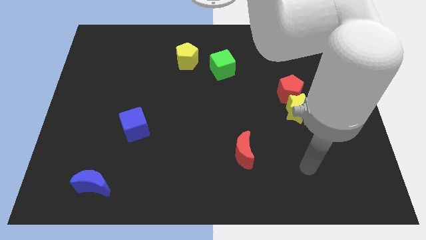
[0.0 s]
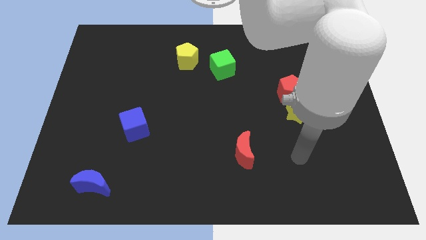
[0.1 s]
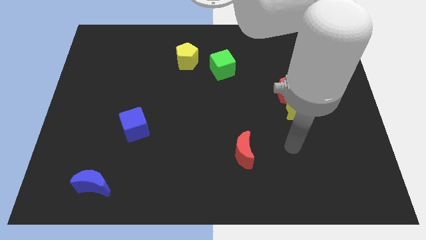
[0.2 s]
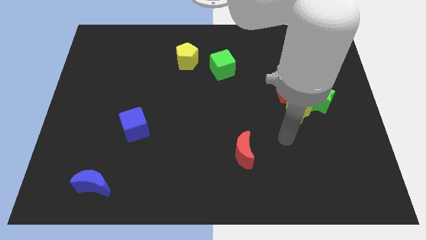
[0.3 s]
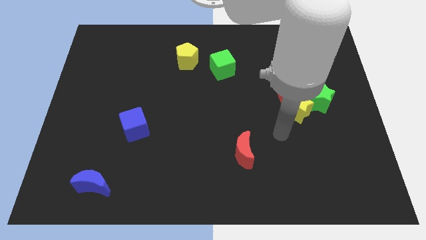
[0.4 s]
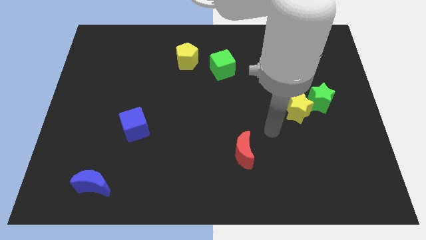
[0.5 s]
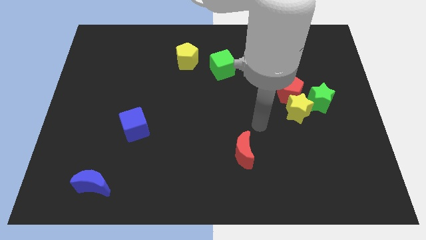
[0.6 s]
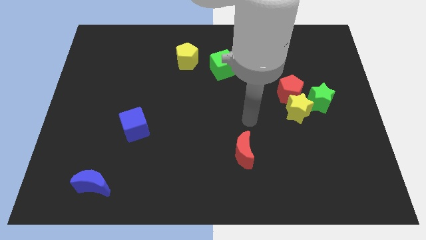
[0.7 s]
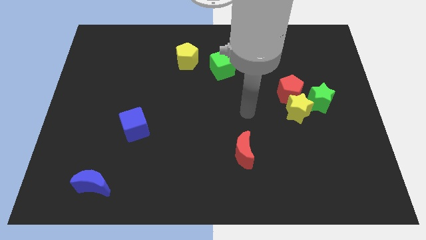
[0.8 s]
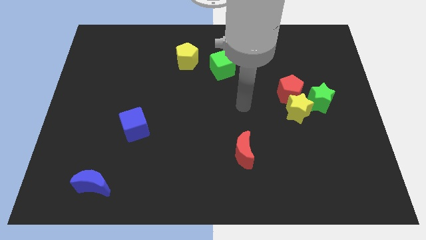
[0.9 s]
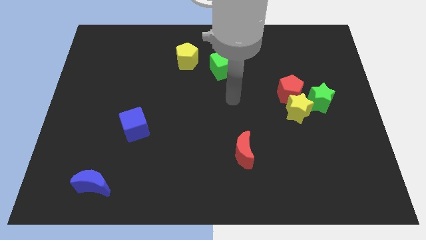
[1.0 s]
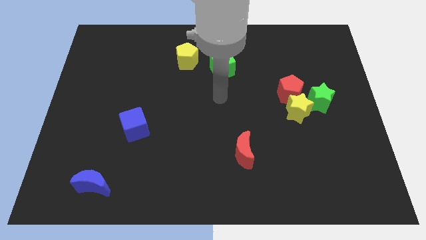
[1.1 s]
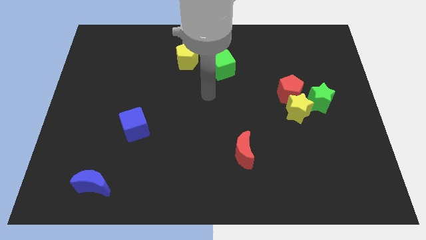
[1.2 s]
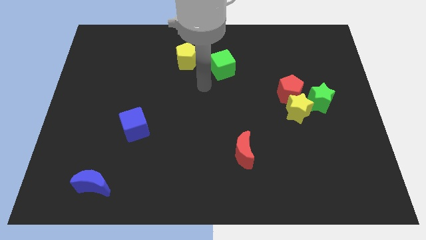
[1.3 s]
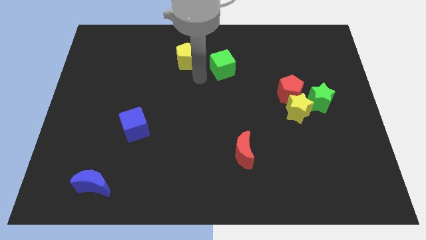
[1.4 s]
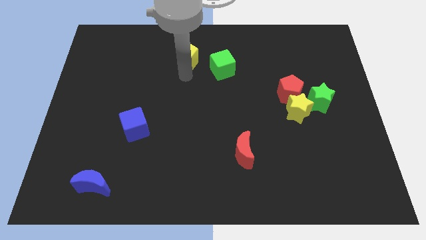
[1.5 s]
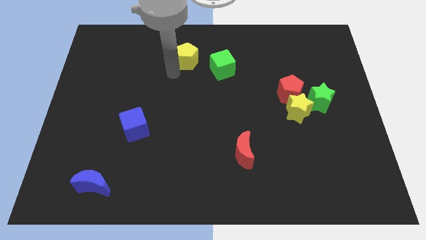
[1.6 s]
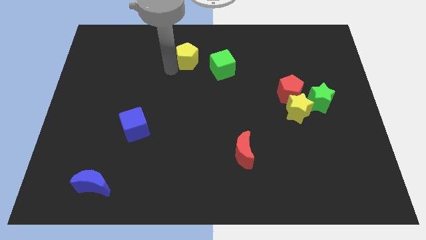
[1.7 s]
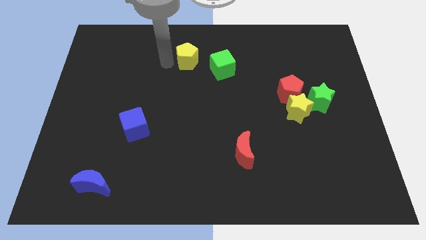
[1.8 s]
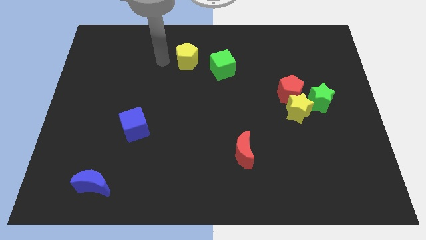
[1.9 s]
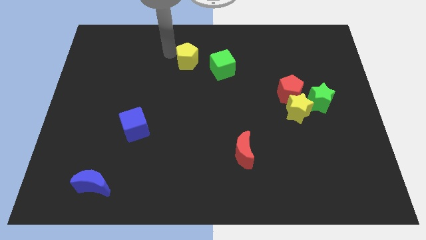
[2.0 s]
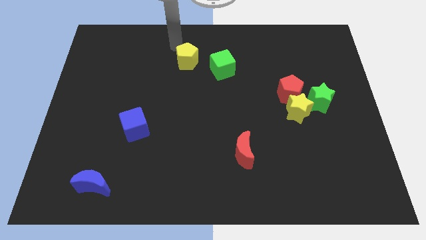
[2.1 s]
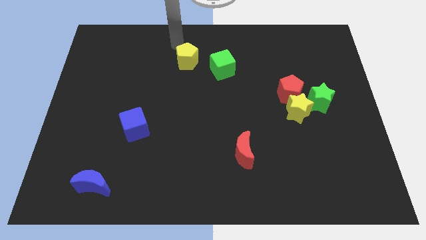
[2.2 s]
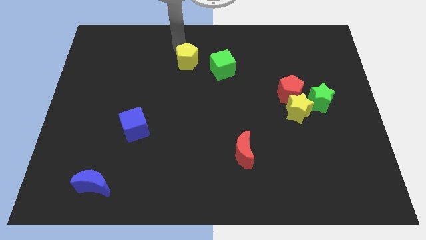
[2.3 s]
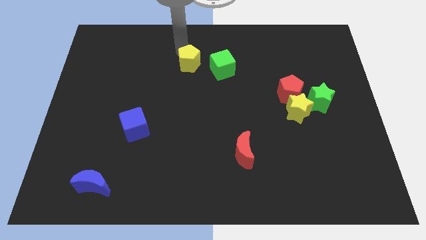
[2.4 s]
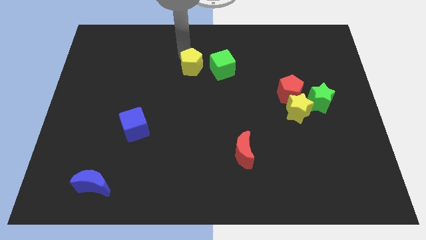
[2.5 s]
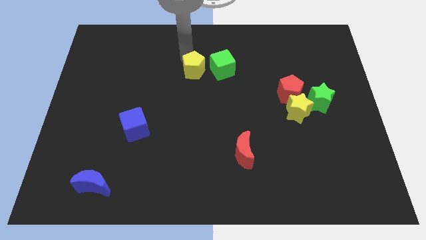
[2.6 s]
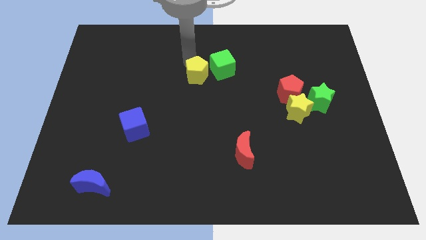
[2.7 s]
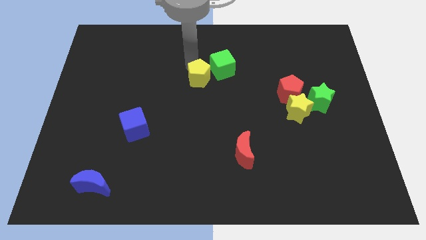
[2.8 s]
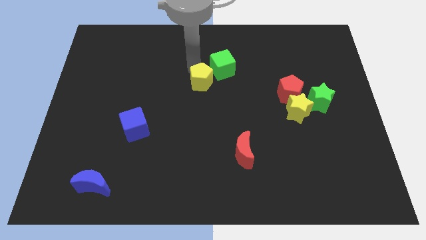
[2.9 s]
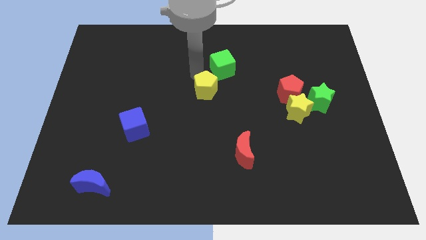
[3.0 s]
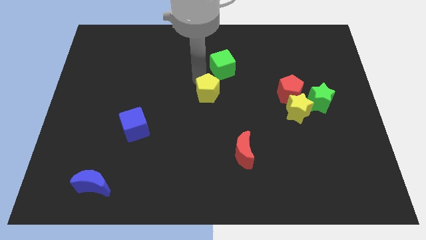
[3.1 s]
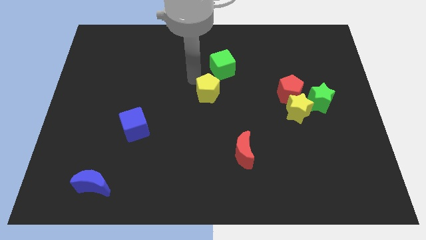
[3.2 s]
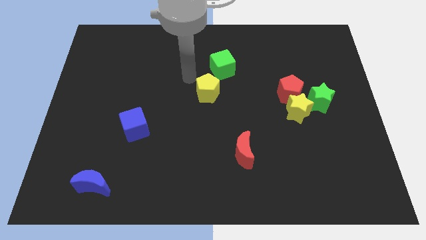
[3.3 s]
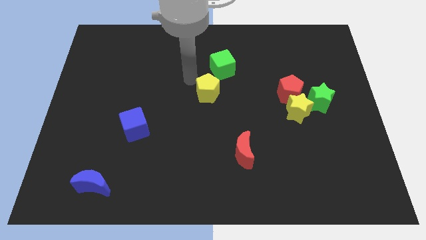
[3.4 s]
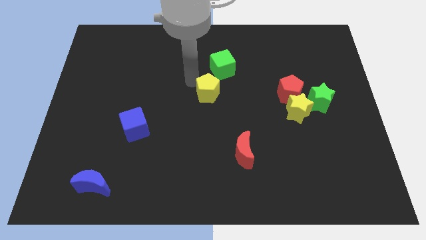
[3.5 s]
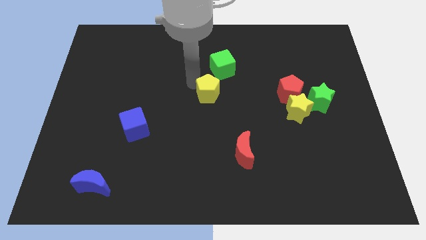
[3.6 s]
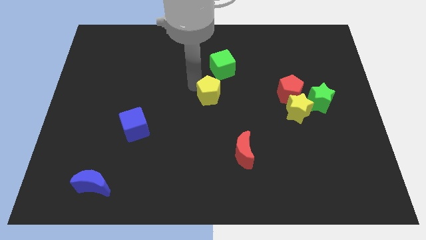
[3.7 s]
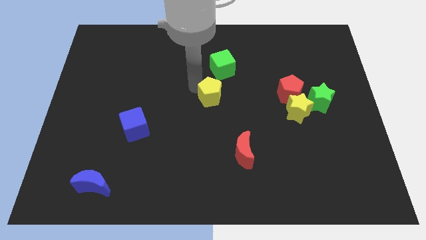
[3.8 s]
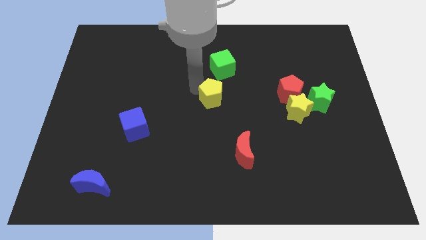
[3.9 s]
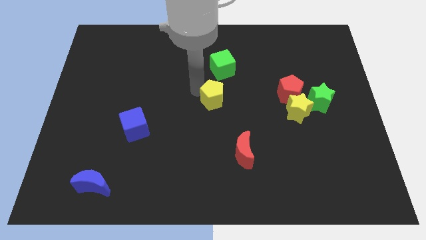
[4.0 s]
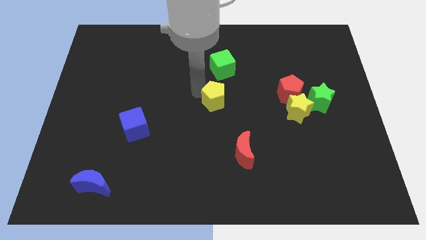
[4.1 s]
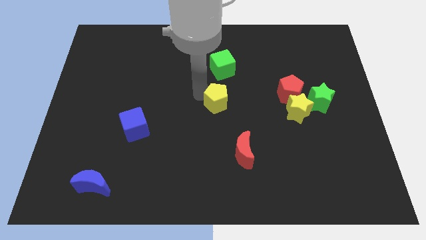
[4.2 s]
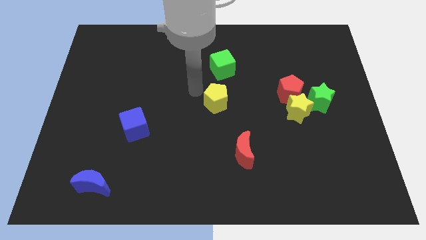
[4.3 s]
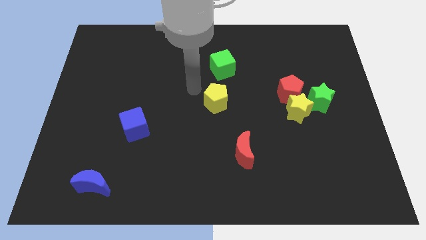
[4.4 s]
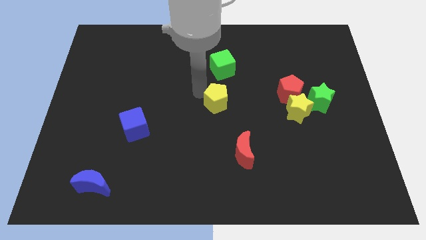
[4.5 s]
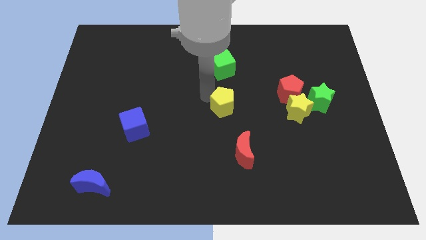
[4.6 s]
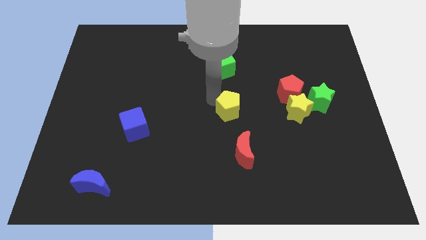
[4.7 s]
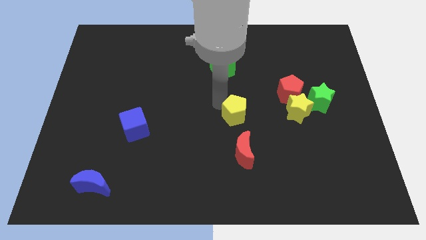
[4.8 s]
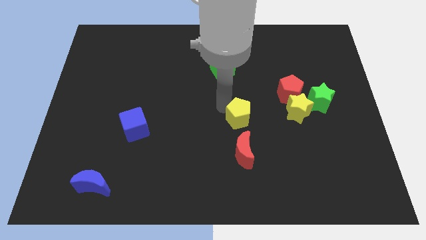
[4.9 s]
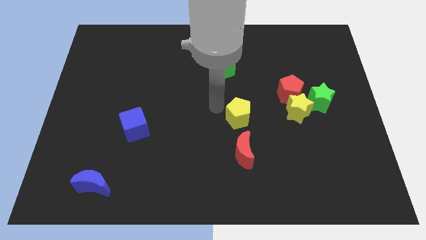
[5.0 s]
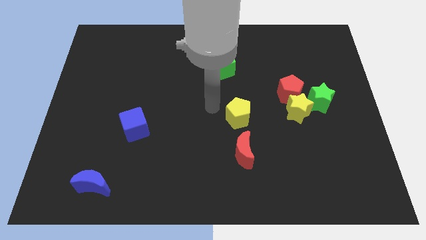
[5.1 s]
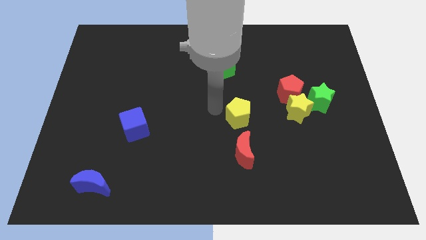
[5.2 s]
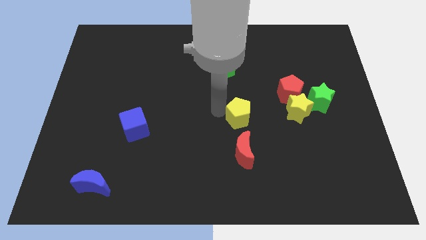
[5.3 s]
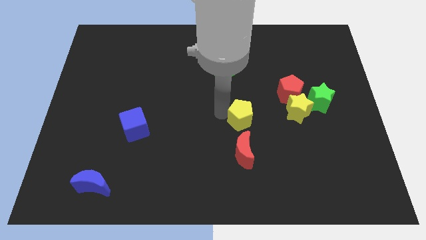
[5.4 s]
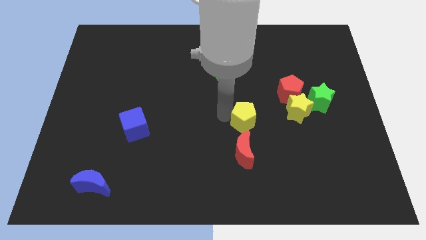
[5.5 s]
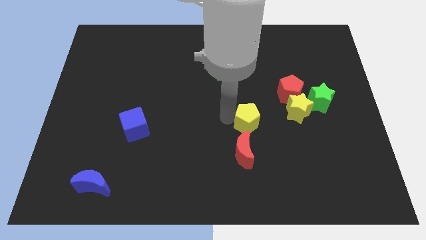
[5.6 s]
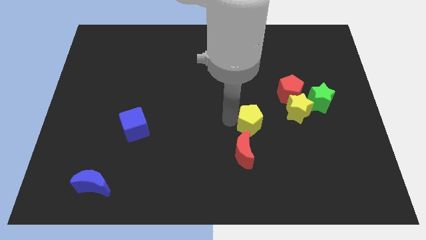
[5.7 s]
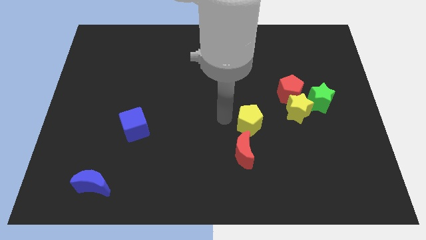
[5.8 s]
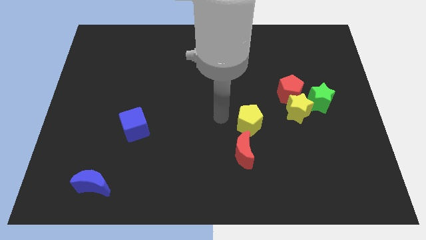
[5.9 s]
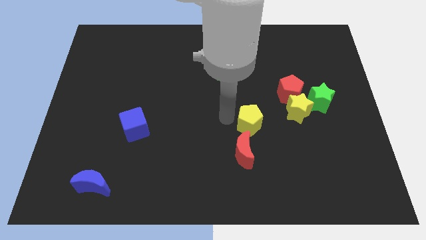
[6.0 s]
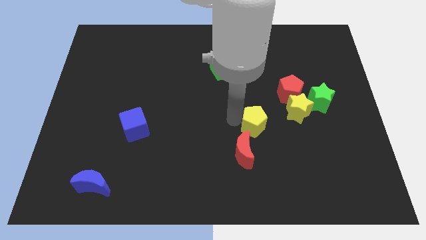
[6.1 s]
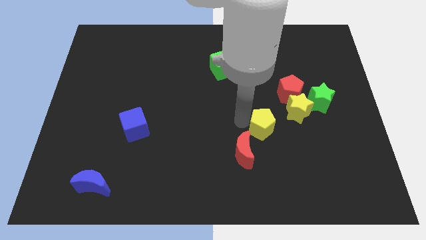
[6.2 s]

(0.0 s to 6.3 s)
slide the yellow pentagon to the bottom left of the yellow star

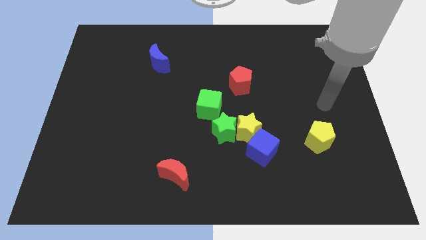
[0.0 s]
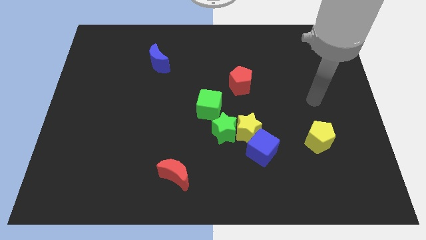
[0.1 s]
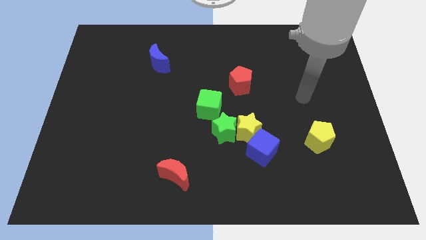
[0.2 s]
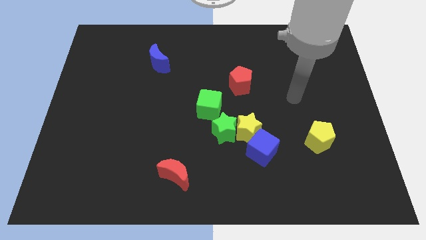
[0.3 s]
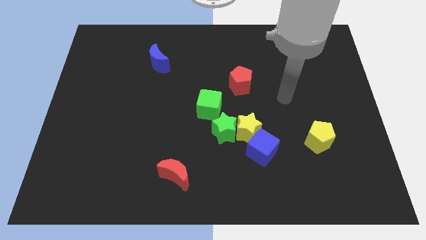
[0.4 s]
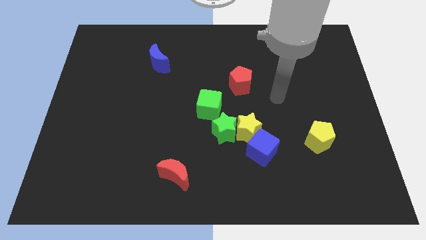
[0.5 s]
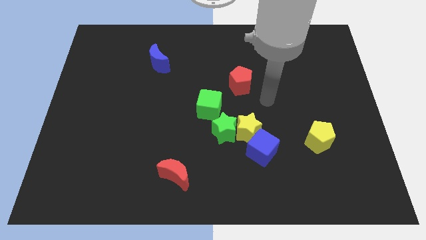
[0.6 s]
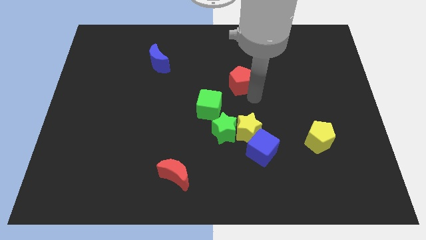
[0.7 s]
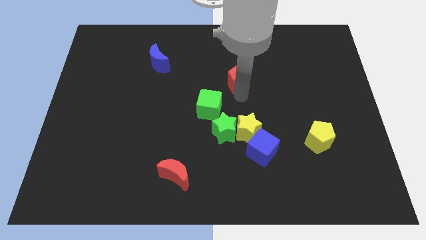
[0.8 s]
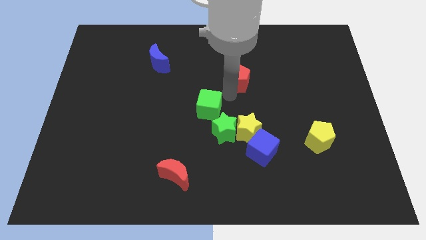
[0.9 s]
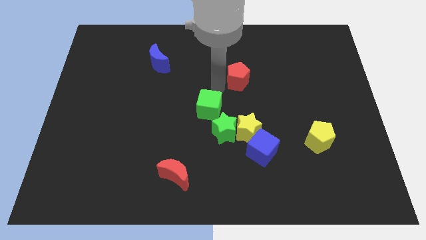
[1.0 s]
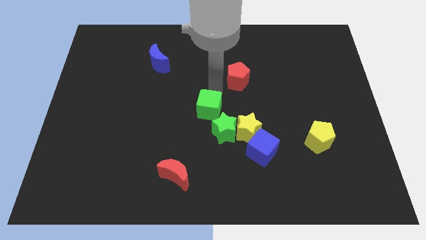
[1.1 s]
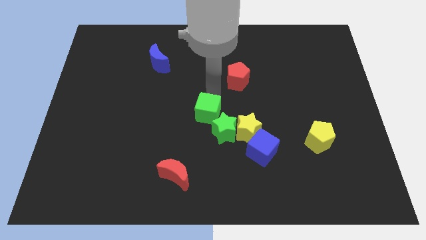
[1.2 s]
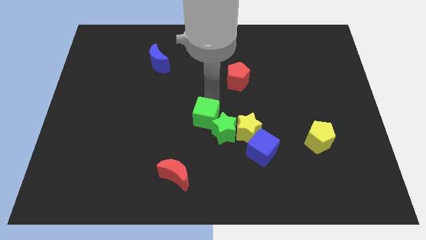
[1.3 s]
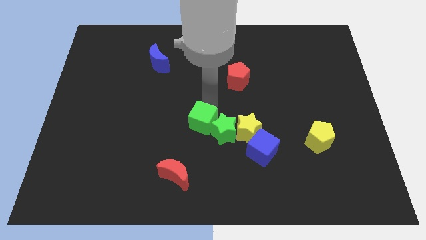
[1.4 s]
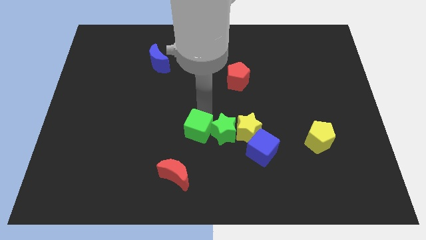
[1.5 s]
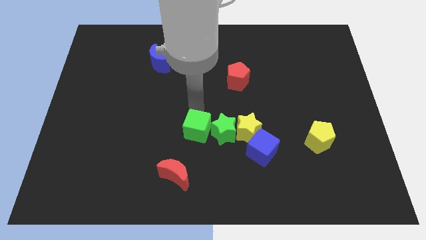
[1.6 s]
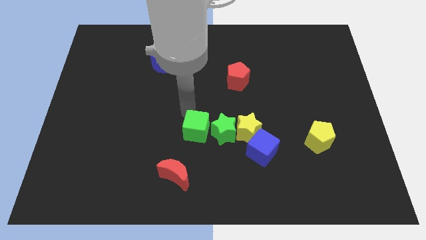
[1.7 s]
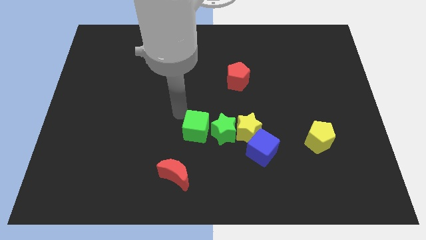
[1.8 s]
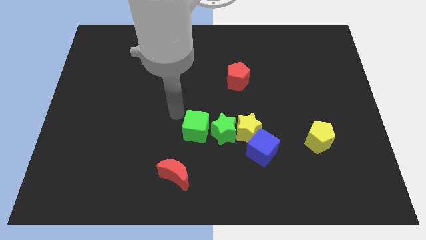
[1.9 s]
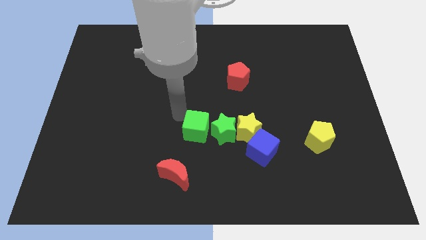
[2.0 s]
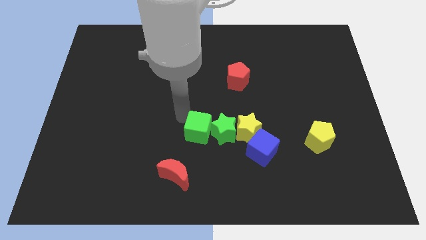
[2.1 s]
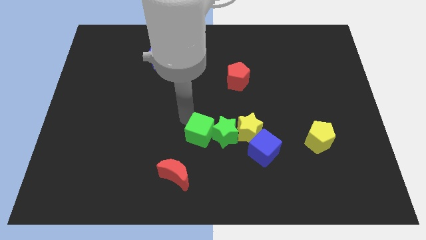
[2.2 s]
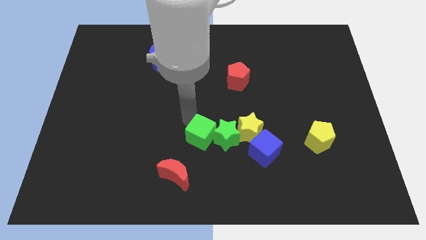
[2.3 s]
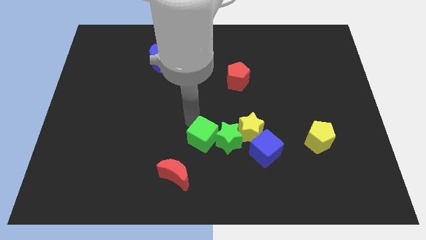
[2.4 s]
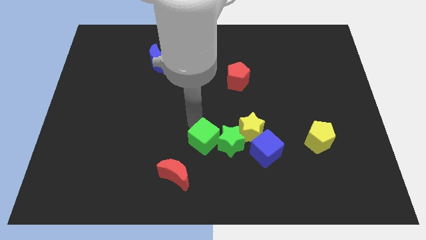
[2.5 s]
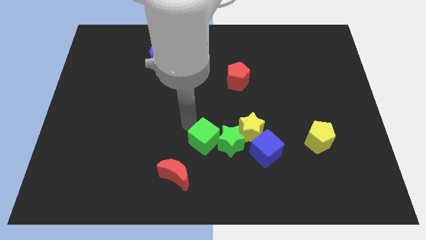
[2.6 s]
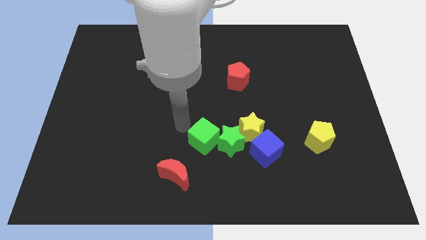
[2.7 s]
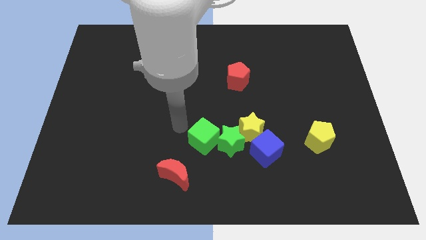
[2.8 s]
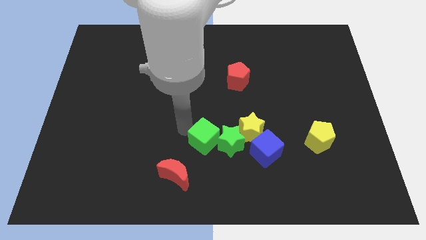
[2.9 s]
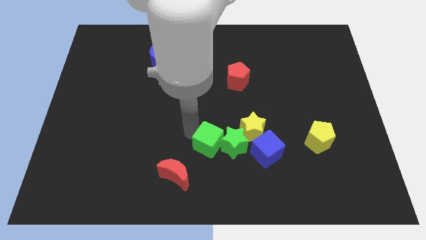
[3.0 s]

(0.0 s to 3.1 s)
slide the green cube diagonally down and to the left of the yellow star
